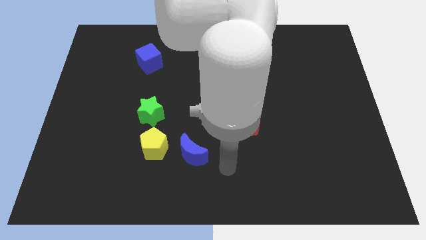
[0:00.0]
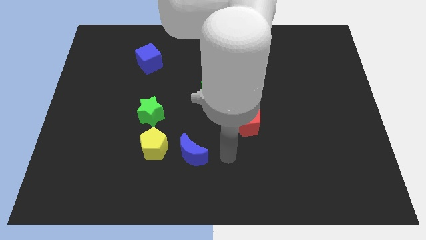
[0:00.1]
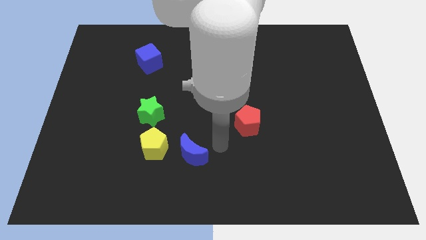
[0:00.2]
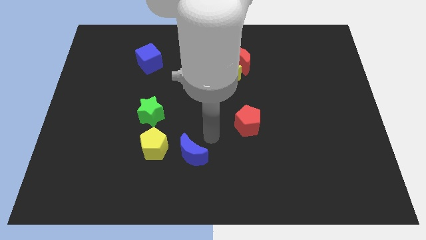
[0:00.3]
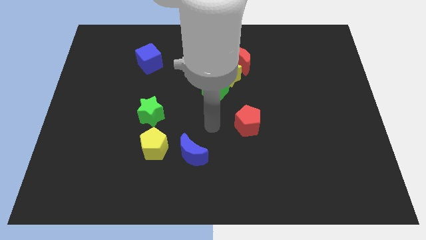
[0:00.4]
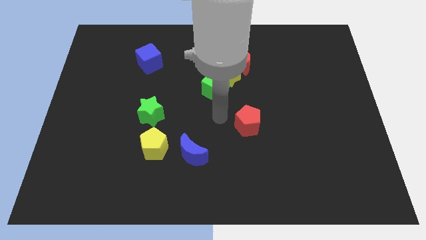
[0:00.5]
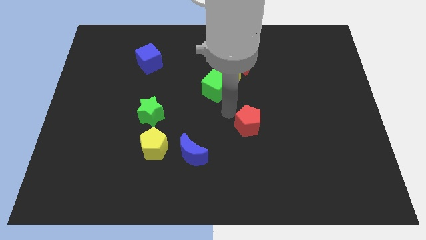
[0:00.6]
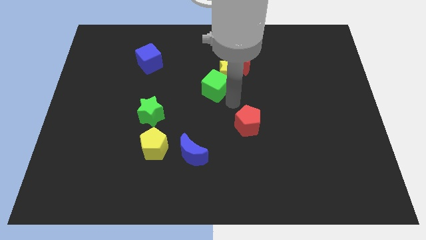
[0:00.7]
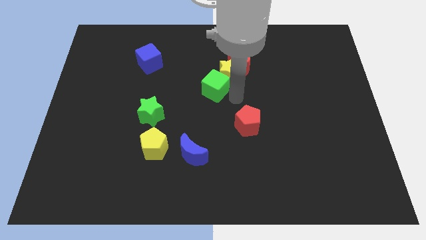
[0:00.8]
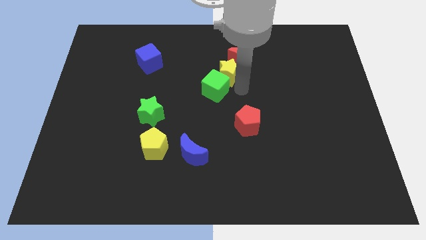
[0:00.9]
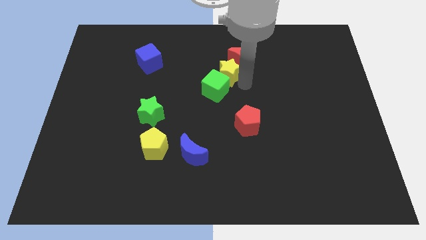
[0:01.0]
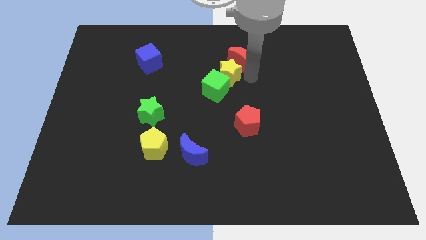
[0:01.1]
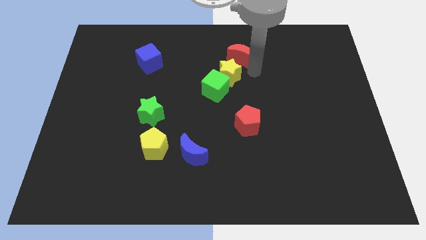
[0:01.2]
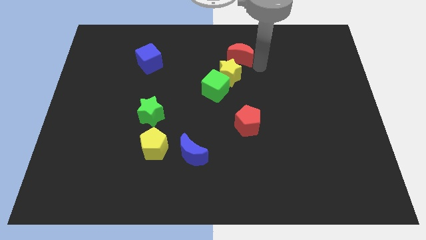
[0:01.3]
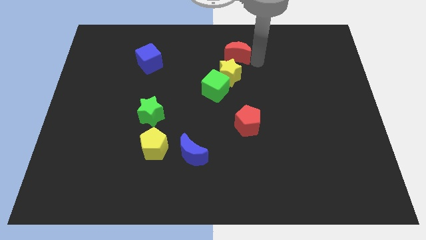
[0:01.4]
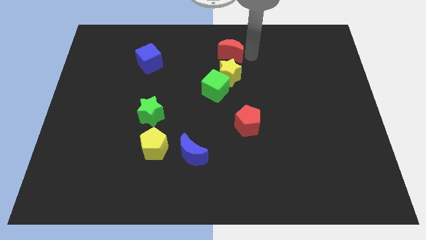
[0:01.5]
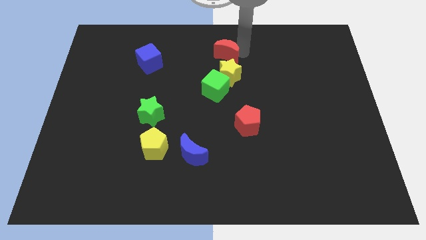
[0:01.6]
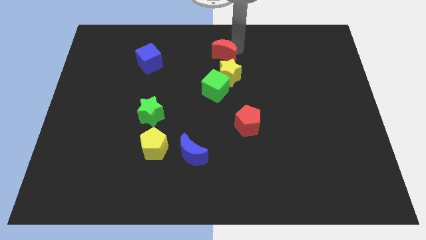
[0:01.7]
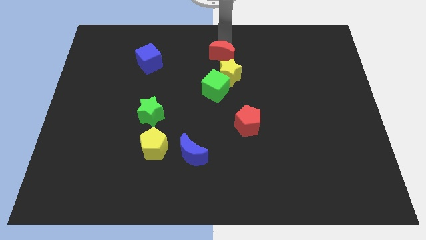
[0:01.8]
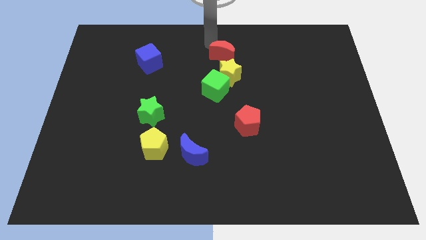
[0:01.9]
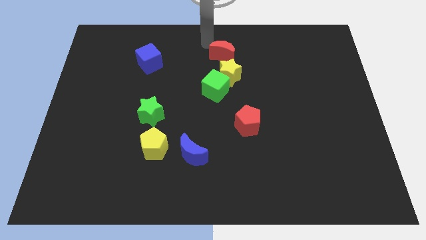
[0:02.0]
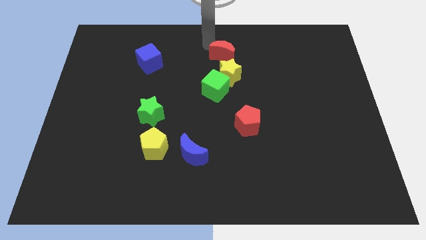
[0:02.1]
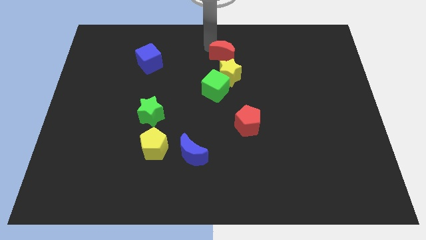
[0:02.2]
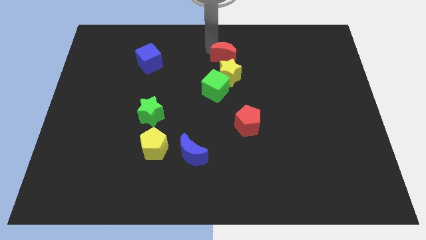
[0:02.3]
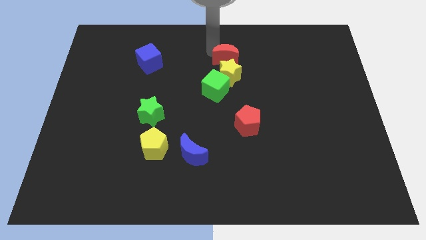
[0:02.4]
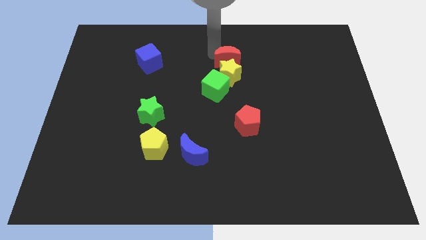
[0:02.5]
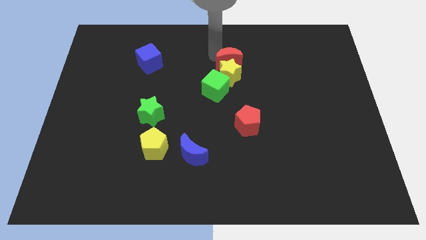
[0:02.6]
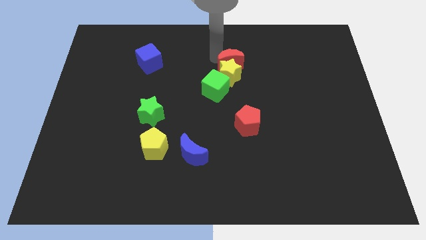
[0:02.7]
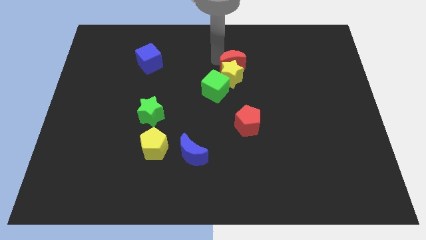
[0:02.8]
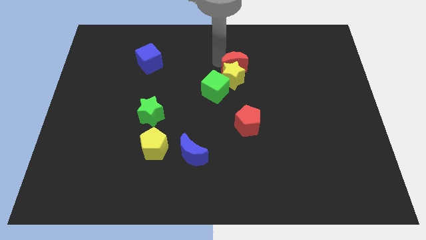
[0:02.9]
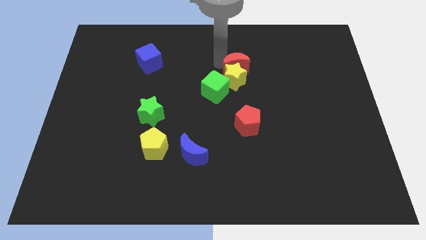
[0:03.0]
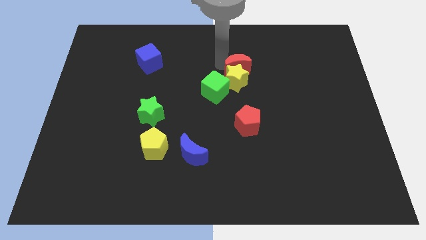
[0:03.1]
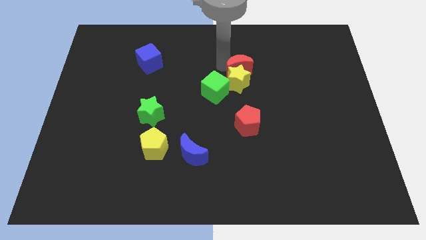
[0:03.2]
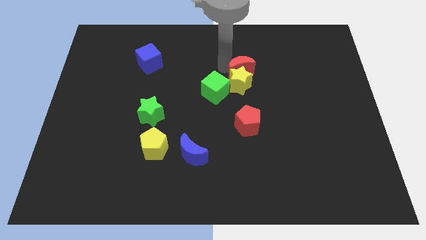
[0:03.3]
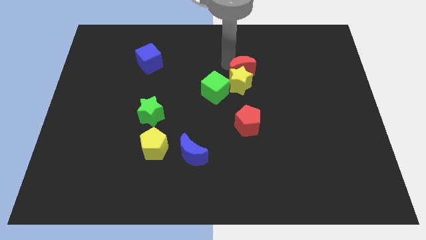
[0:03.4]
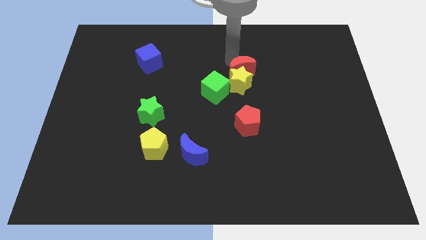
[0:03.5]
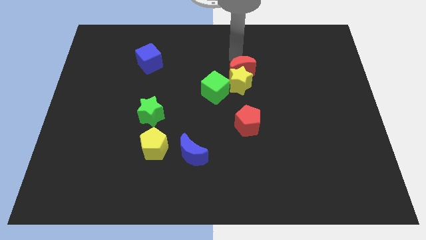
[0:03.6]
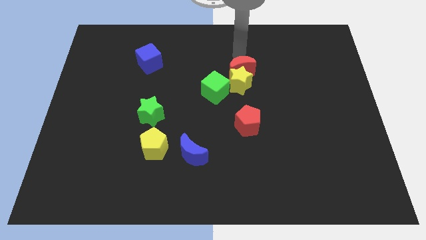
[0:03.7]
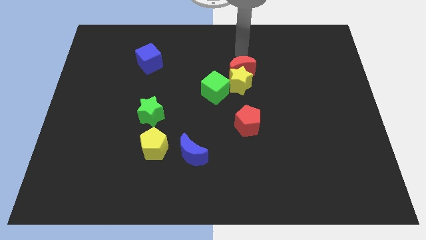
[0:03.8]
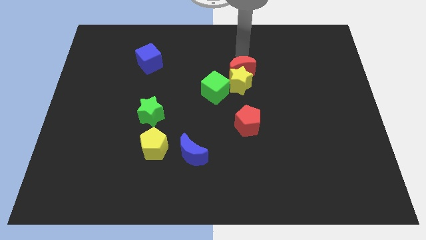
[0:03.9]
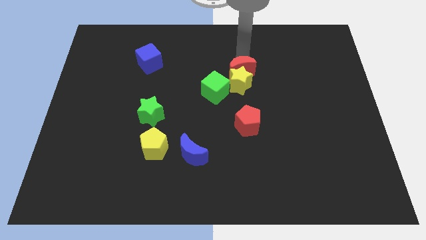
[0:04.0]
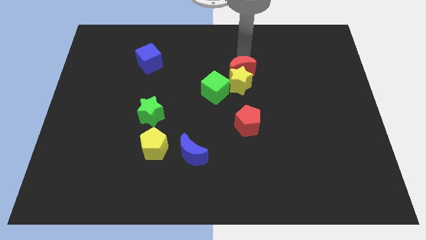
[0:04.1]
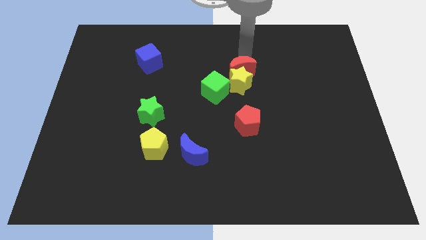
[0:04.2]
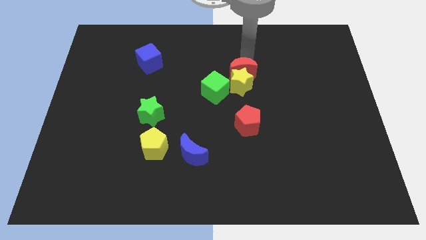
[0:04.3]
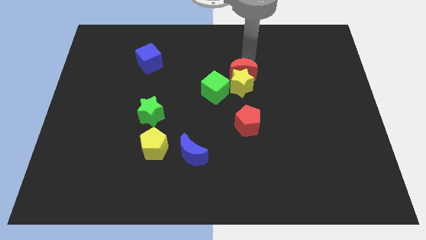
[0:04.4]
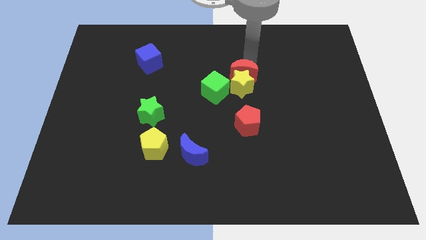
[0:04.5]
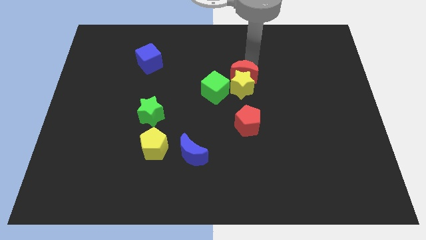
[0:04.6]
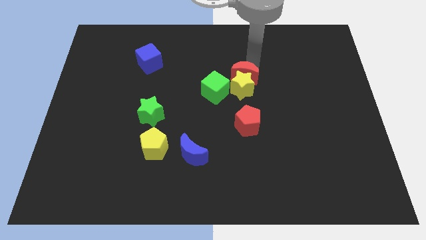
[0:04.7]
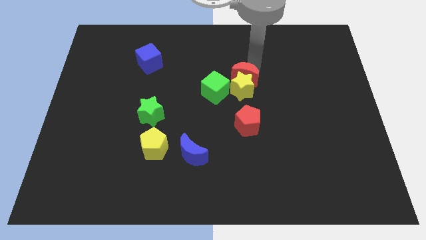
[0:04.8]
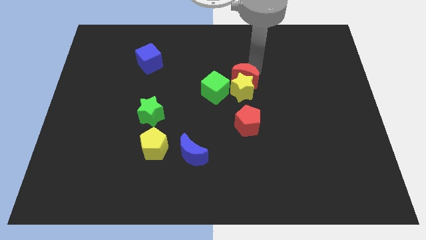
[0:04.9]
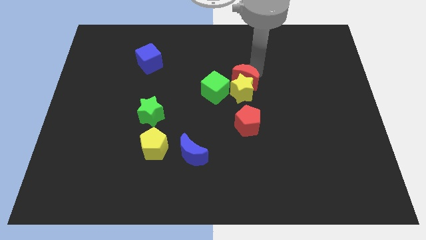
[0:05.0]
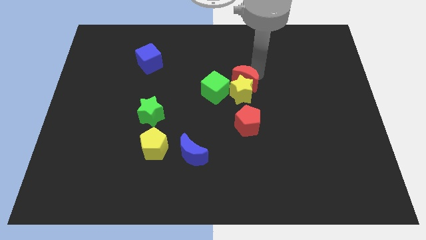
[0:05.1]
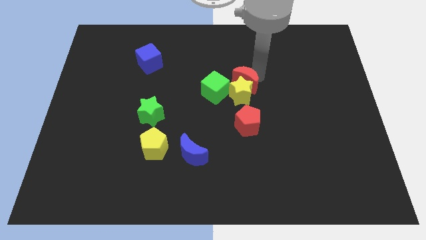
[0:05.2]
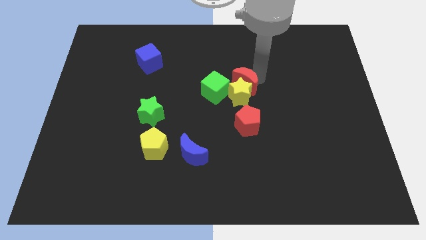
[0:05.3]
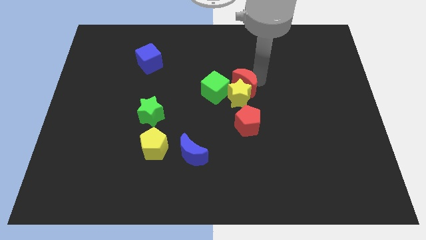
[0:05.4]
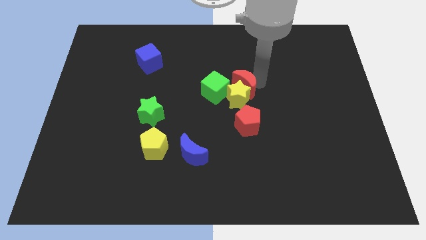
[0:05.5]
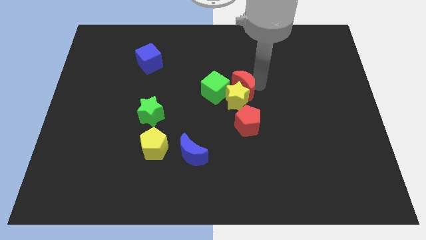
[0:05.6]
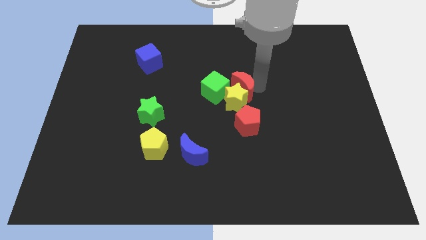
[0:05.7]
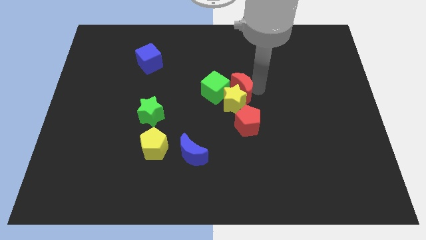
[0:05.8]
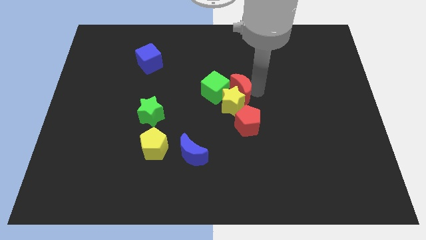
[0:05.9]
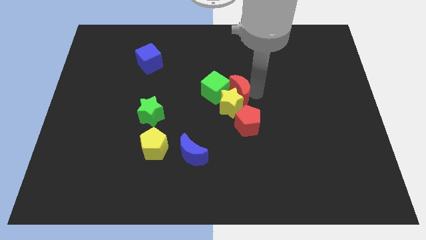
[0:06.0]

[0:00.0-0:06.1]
put the red moon towards the green cube

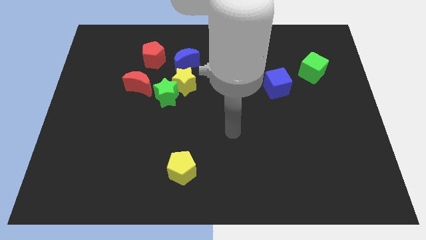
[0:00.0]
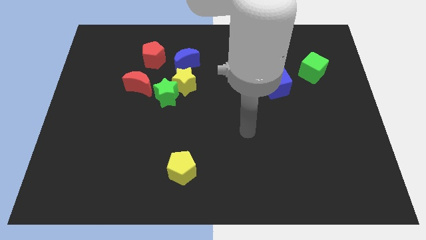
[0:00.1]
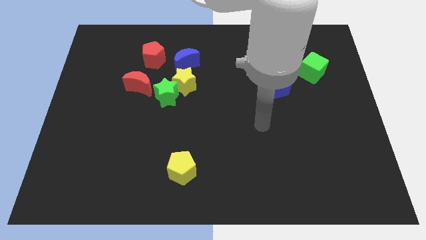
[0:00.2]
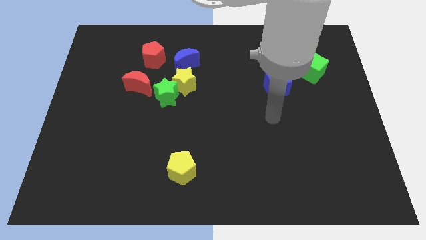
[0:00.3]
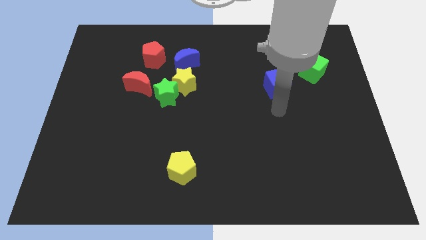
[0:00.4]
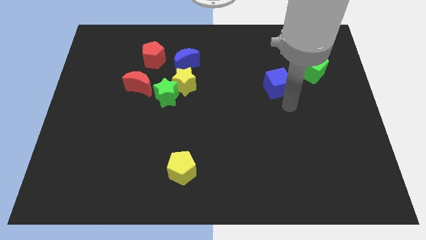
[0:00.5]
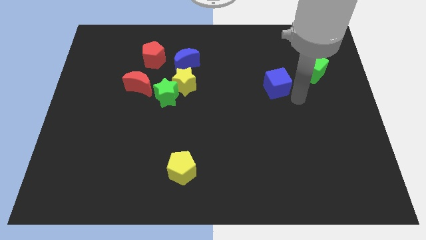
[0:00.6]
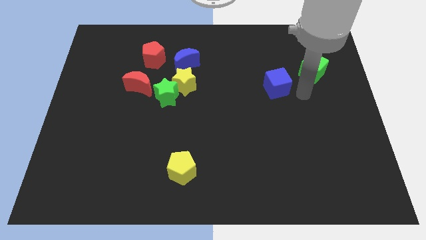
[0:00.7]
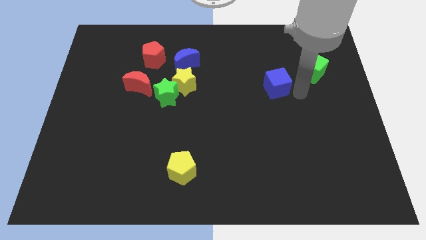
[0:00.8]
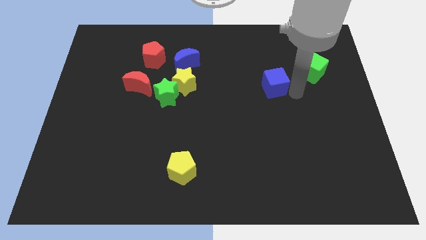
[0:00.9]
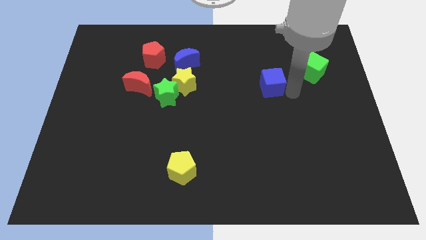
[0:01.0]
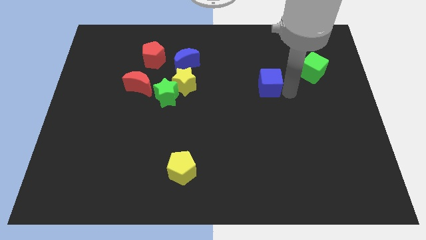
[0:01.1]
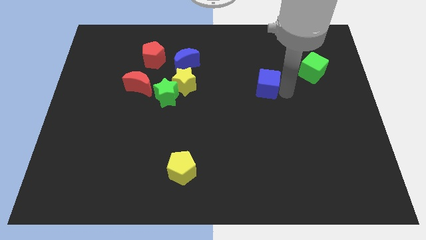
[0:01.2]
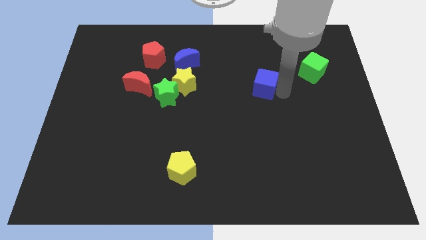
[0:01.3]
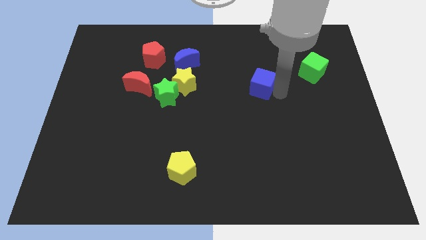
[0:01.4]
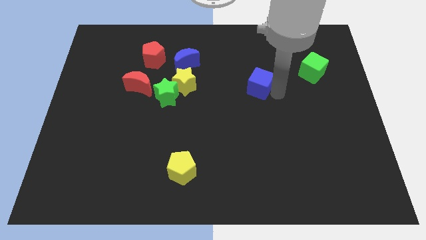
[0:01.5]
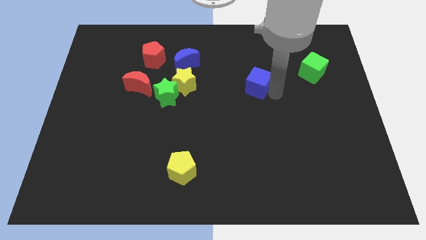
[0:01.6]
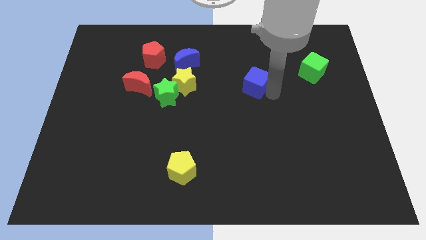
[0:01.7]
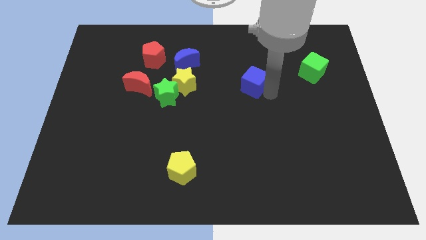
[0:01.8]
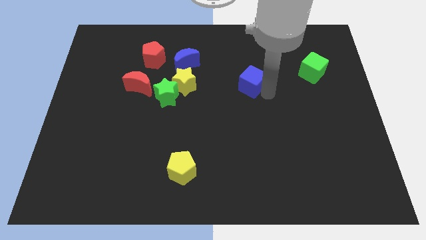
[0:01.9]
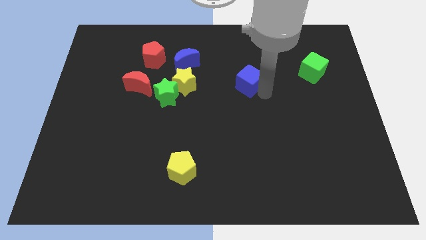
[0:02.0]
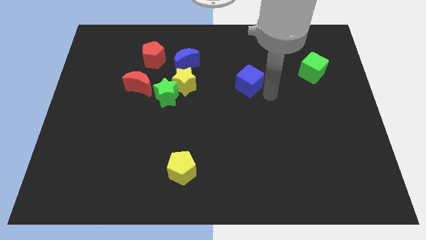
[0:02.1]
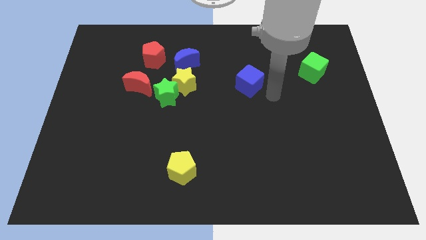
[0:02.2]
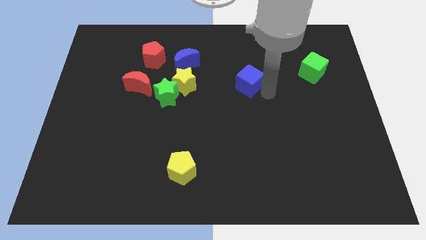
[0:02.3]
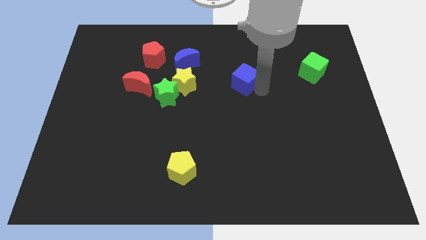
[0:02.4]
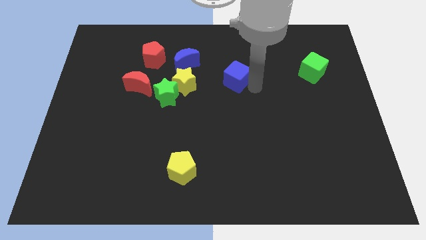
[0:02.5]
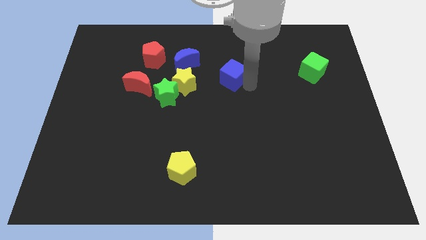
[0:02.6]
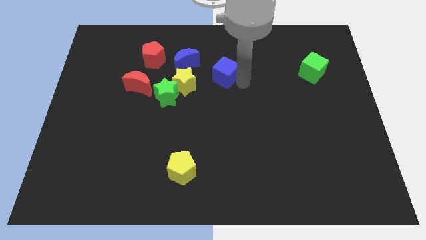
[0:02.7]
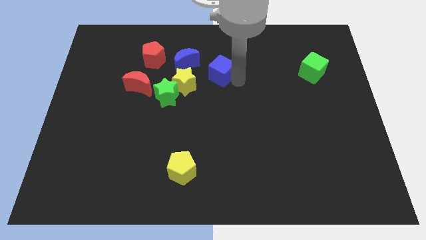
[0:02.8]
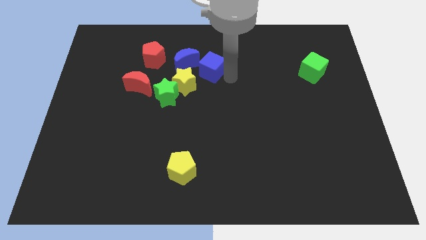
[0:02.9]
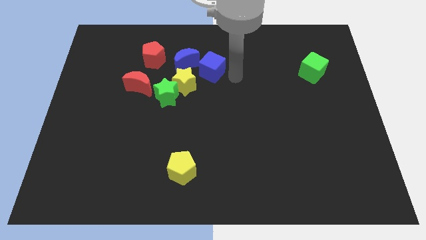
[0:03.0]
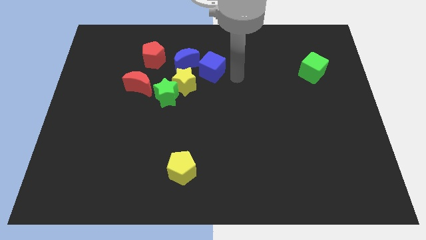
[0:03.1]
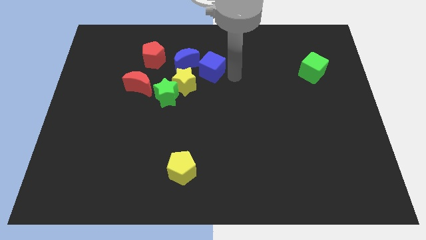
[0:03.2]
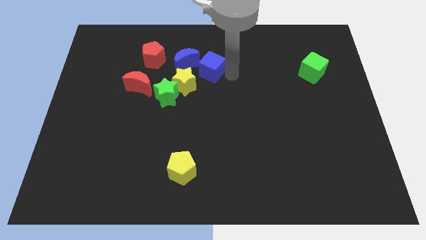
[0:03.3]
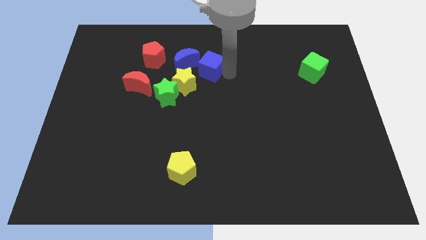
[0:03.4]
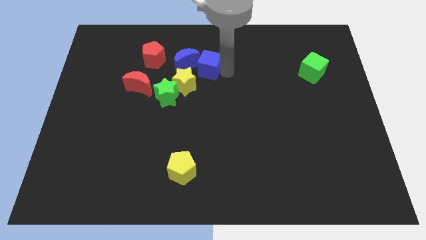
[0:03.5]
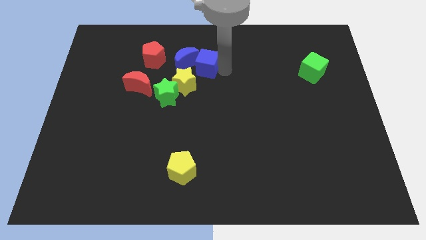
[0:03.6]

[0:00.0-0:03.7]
slide the blue cube towards the blue moon
